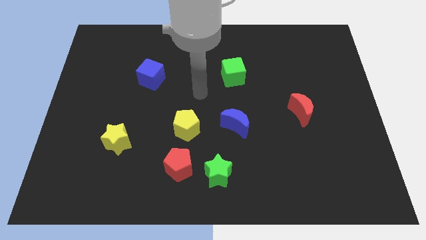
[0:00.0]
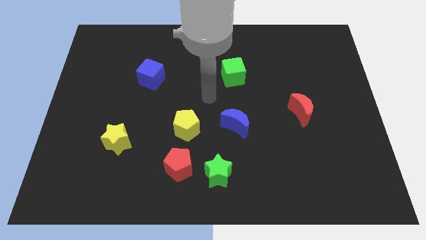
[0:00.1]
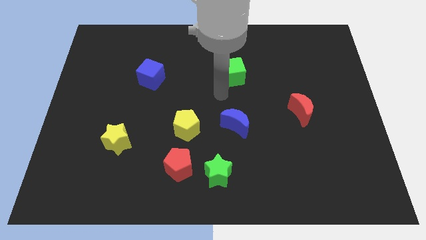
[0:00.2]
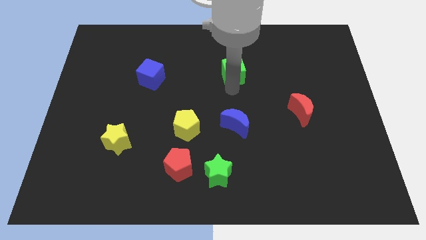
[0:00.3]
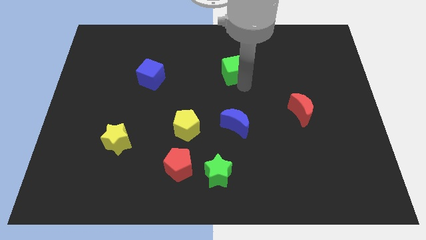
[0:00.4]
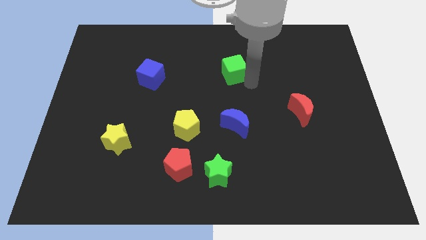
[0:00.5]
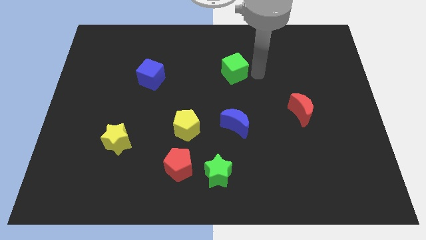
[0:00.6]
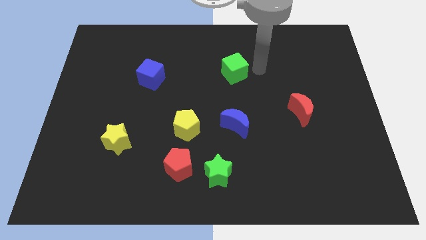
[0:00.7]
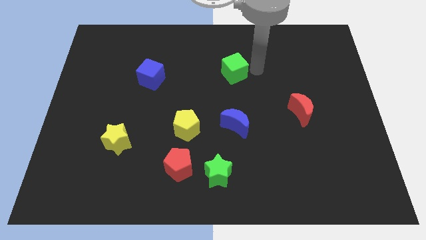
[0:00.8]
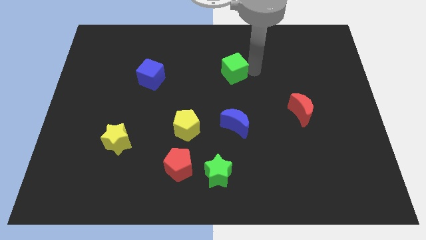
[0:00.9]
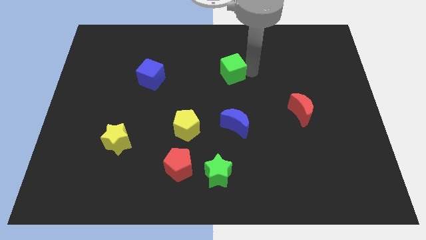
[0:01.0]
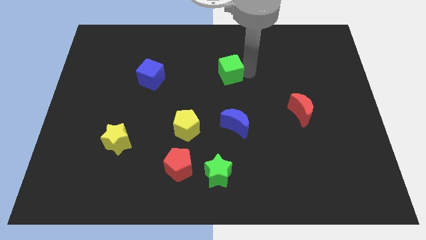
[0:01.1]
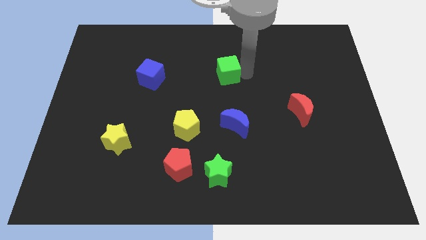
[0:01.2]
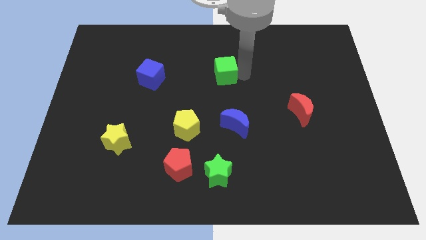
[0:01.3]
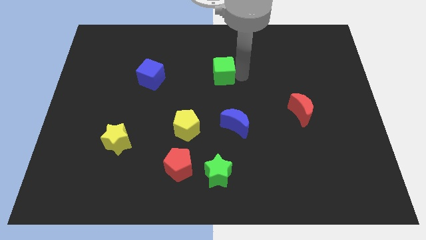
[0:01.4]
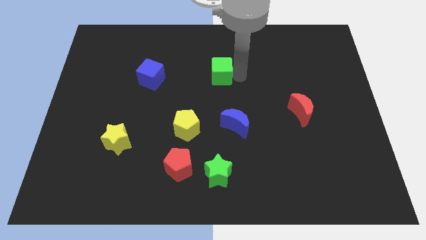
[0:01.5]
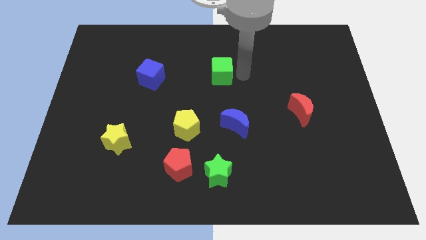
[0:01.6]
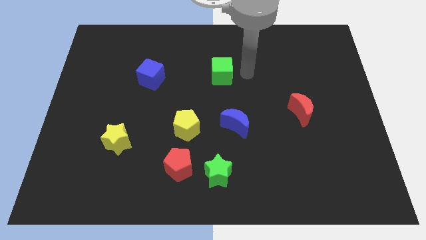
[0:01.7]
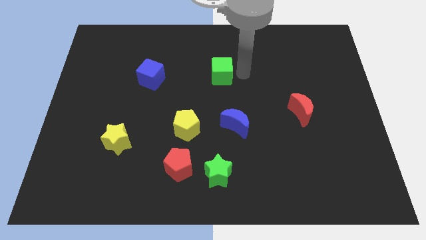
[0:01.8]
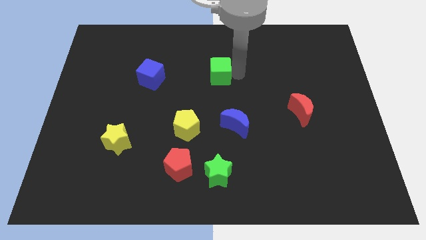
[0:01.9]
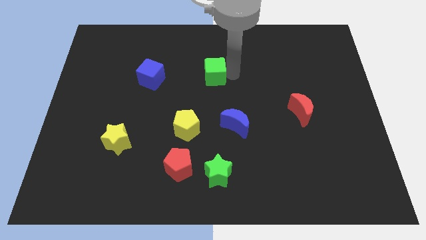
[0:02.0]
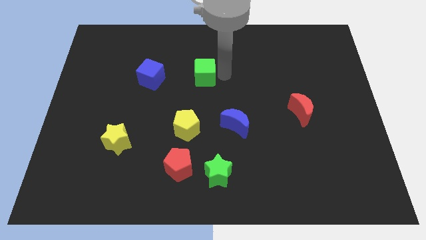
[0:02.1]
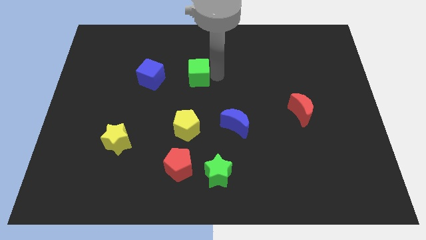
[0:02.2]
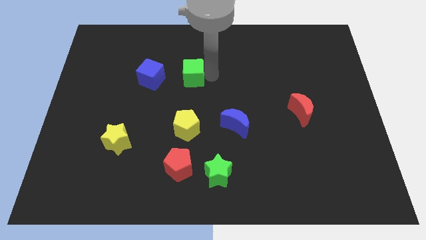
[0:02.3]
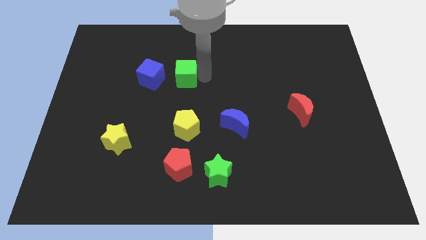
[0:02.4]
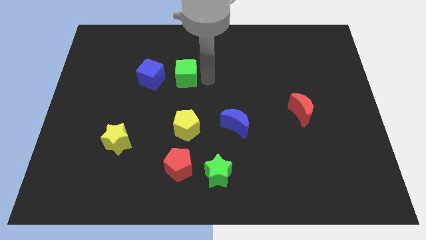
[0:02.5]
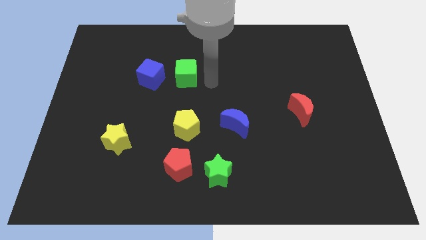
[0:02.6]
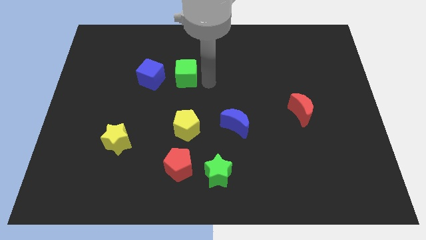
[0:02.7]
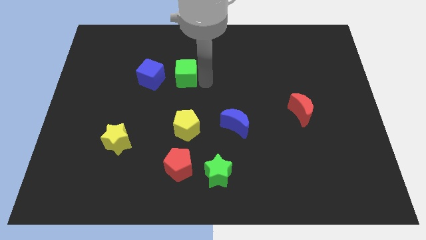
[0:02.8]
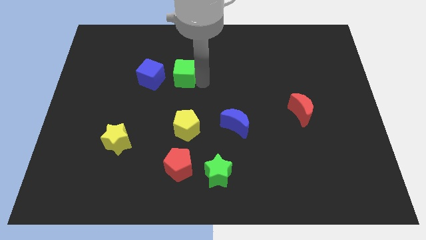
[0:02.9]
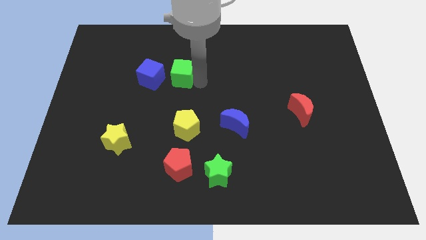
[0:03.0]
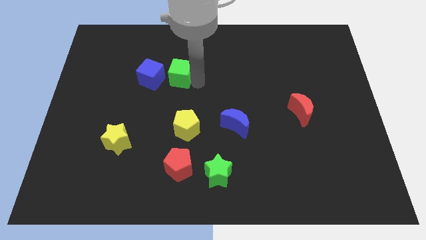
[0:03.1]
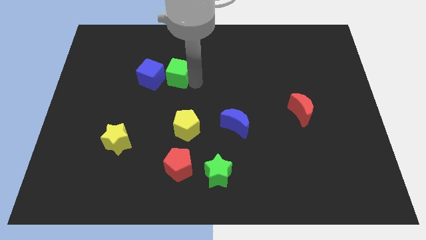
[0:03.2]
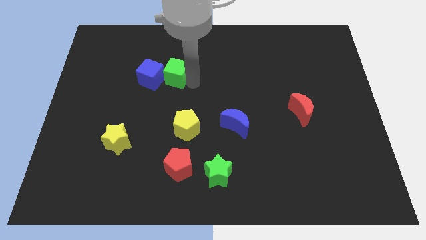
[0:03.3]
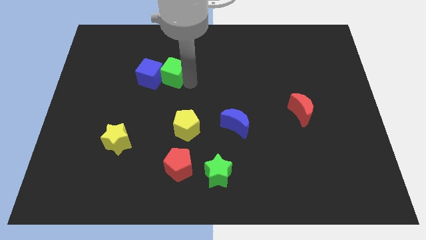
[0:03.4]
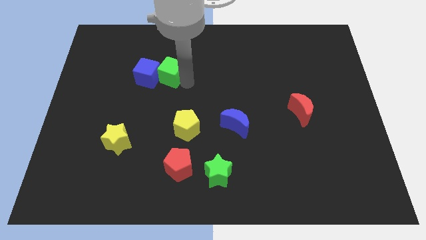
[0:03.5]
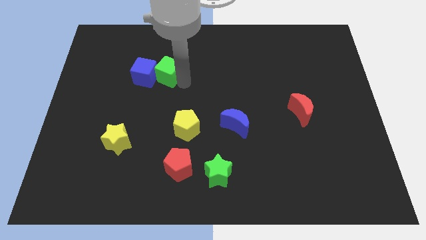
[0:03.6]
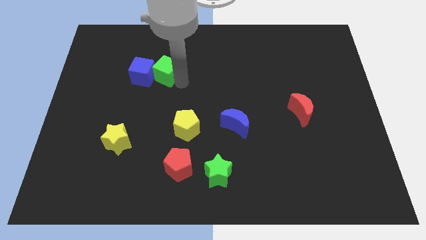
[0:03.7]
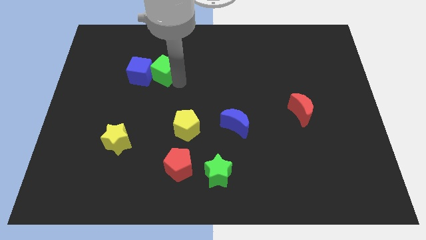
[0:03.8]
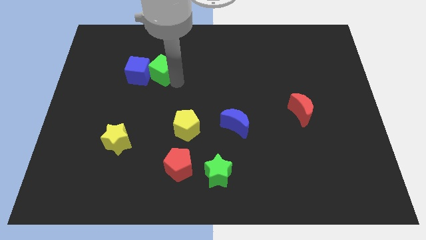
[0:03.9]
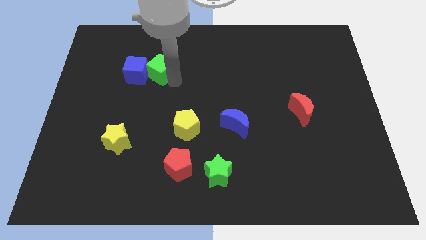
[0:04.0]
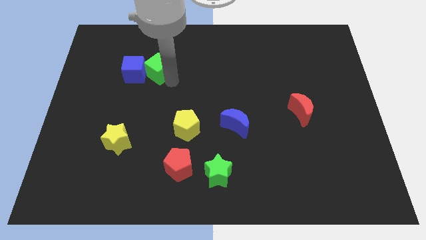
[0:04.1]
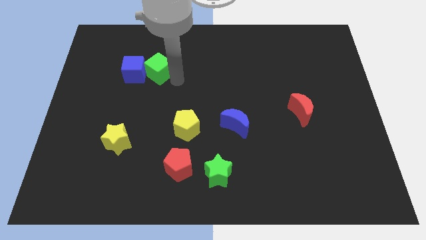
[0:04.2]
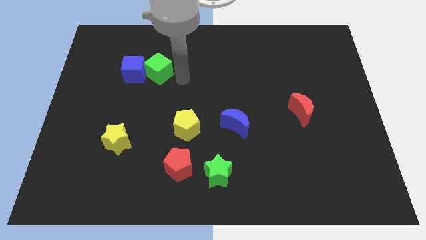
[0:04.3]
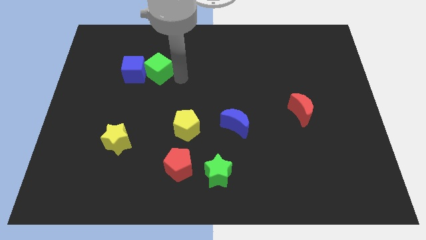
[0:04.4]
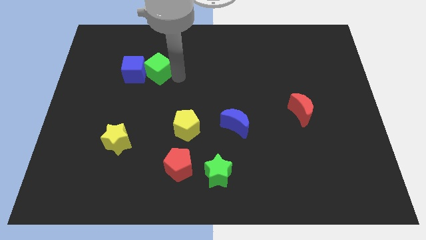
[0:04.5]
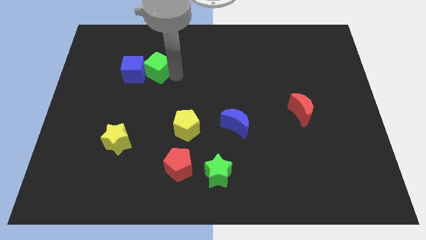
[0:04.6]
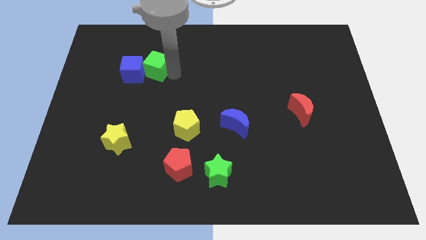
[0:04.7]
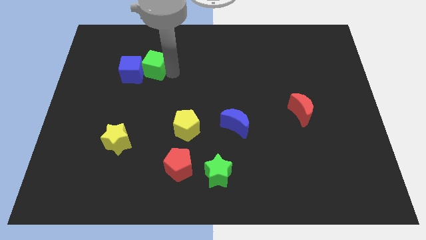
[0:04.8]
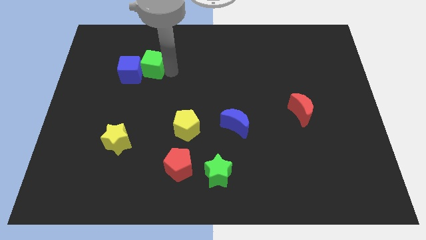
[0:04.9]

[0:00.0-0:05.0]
slide the green cube to the left

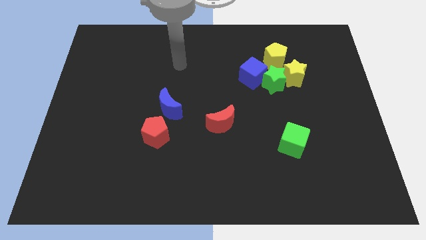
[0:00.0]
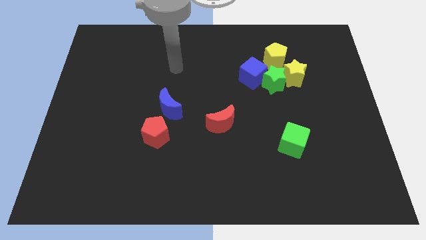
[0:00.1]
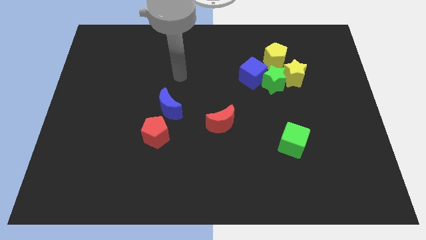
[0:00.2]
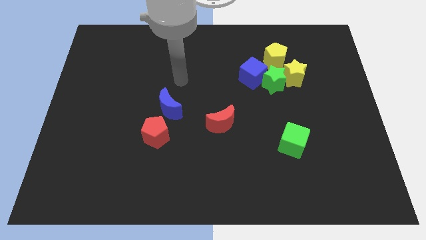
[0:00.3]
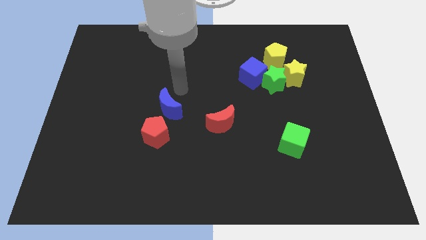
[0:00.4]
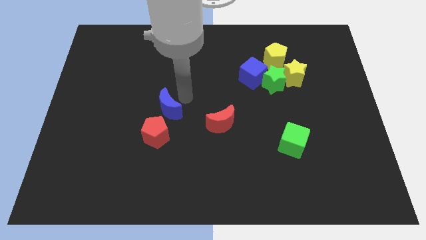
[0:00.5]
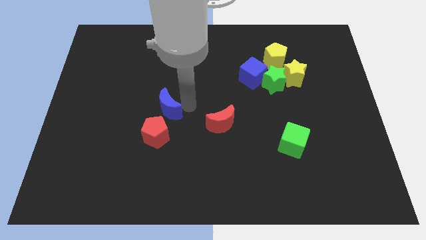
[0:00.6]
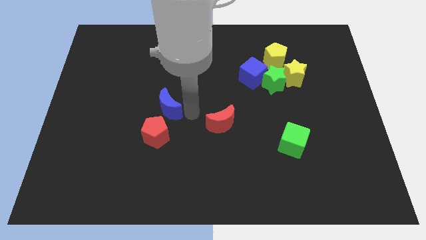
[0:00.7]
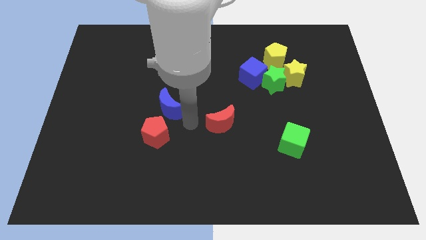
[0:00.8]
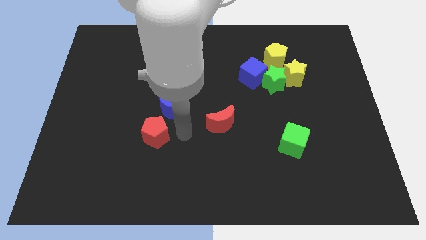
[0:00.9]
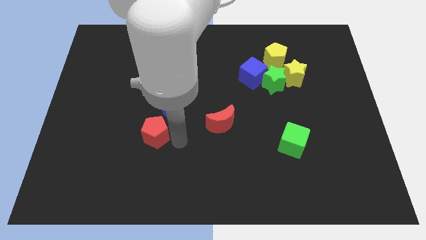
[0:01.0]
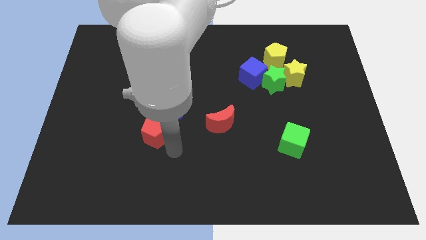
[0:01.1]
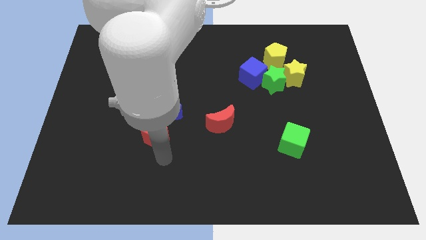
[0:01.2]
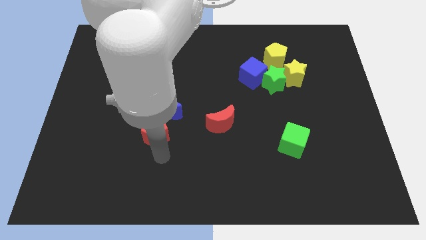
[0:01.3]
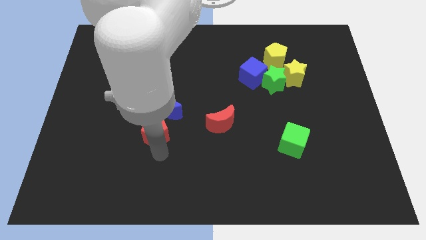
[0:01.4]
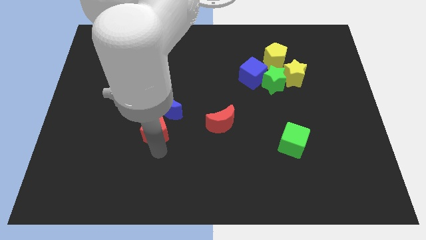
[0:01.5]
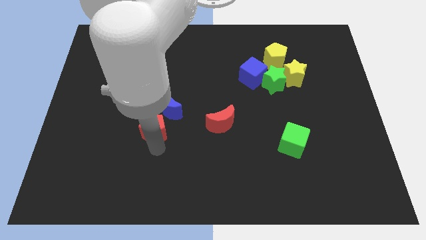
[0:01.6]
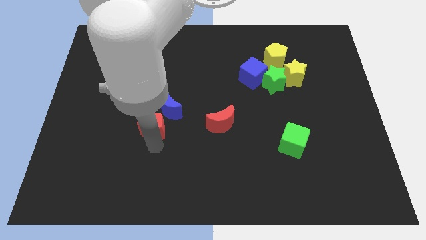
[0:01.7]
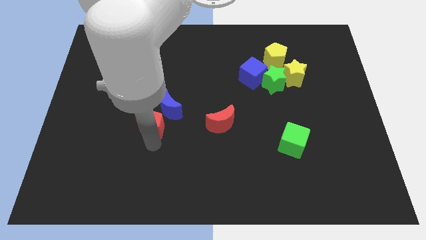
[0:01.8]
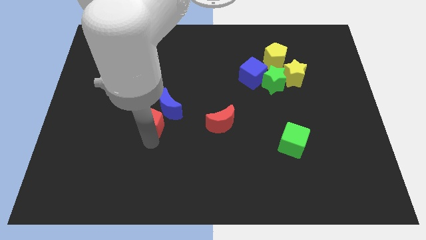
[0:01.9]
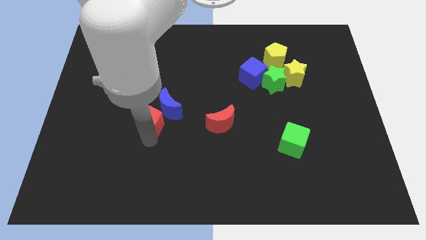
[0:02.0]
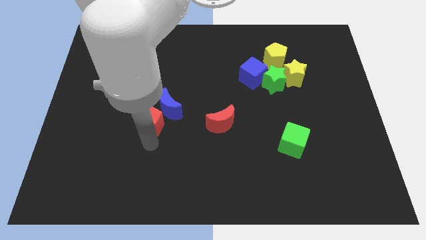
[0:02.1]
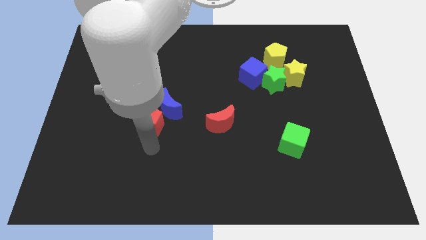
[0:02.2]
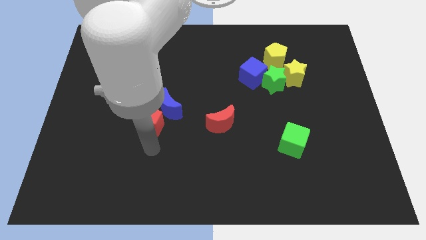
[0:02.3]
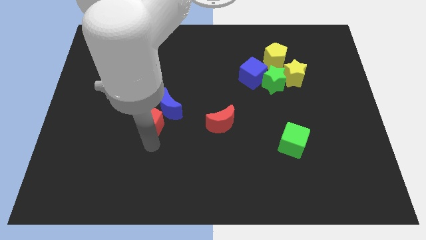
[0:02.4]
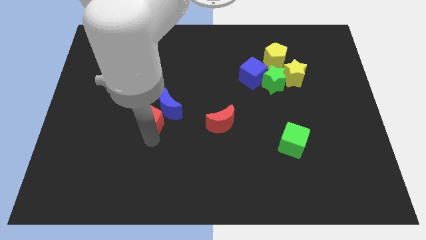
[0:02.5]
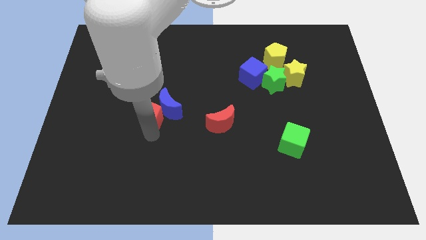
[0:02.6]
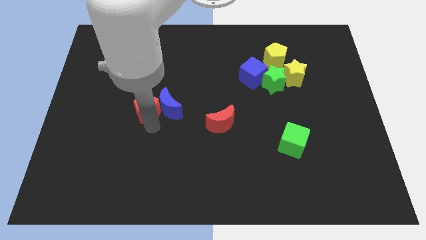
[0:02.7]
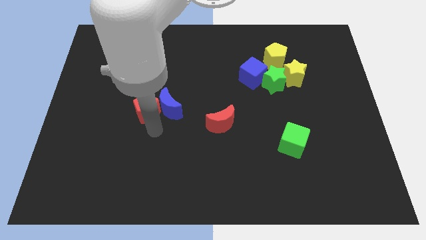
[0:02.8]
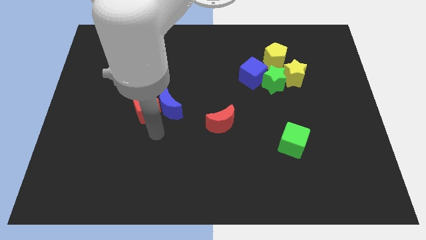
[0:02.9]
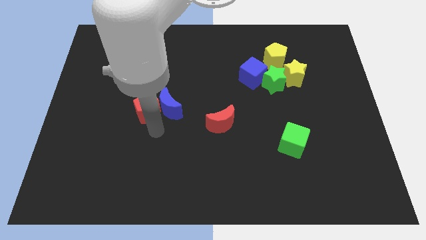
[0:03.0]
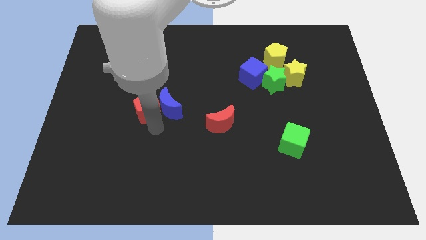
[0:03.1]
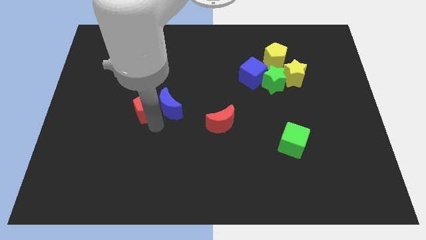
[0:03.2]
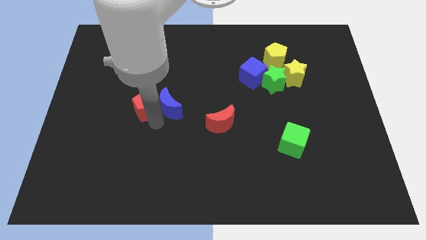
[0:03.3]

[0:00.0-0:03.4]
move the red pentagon a little up
